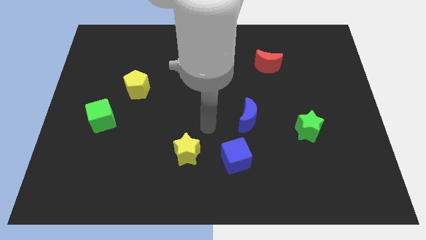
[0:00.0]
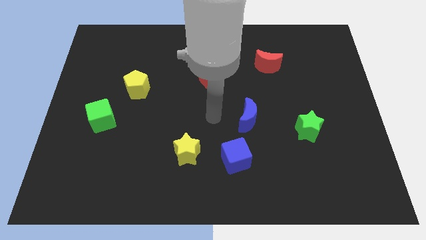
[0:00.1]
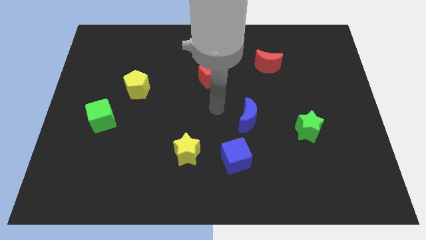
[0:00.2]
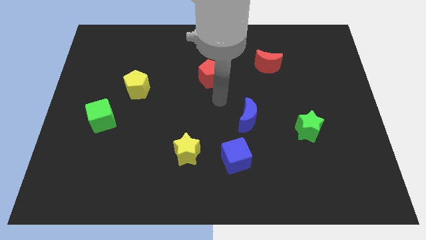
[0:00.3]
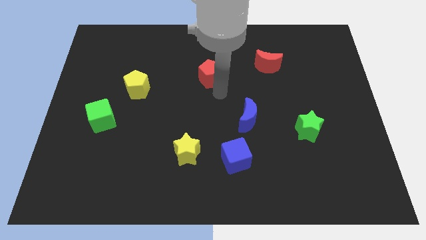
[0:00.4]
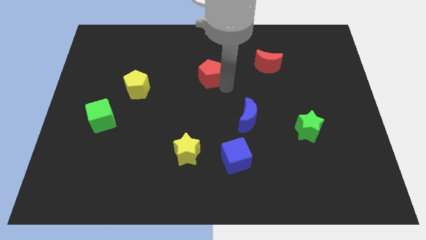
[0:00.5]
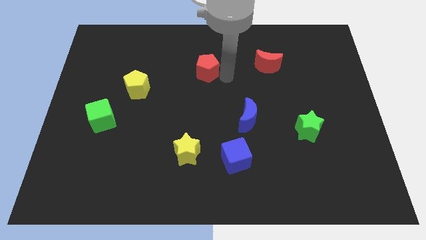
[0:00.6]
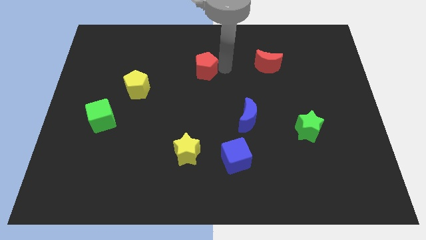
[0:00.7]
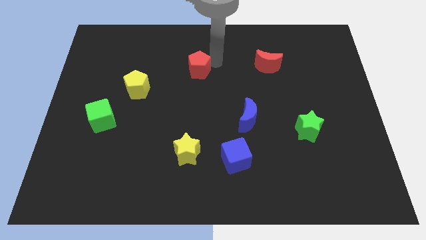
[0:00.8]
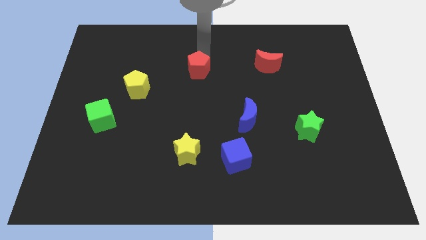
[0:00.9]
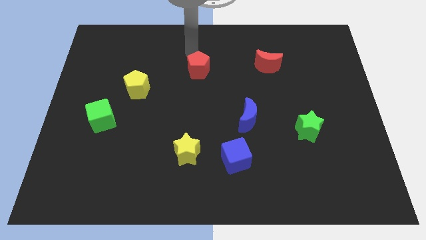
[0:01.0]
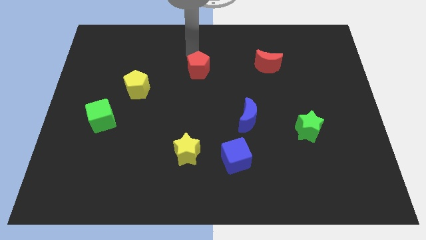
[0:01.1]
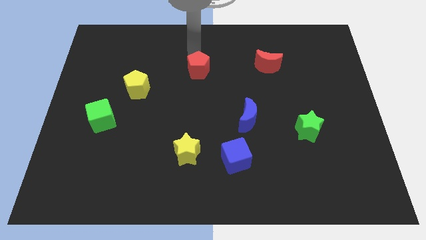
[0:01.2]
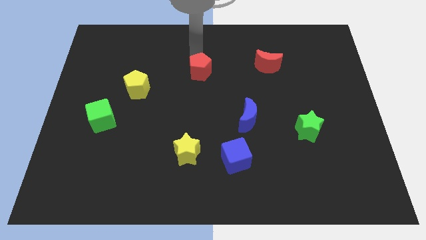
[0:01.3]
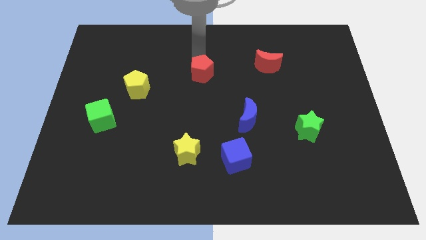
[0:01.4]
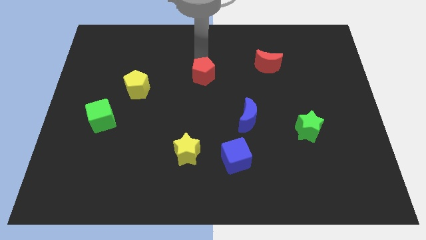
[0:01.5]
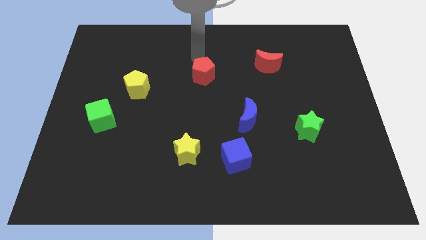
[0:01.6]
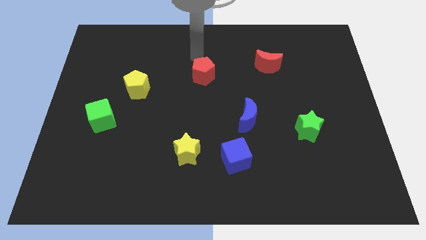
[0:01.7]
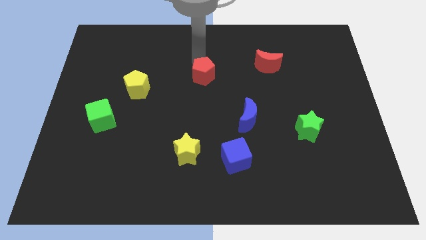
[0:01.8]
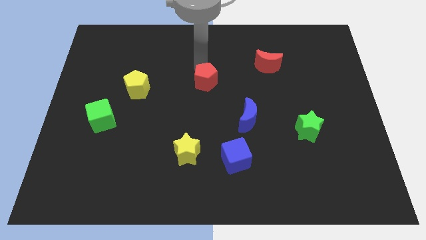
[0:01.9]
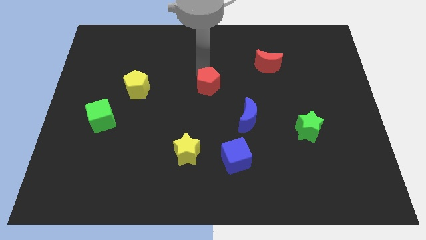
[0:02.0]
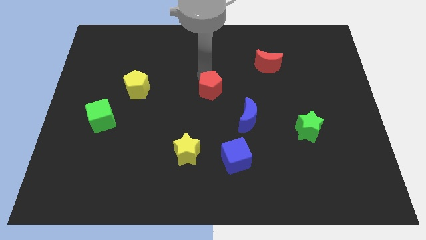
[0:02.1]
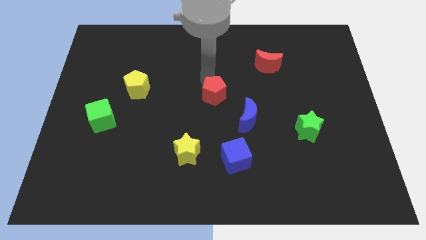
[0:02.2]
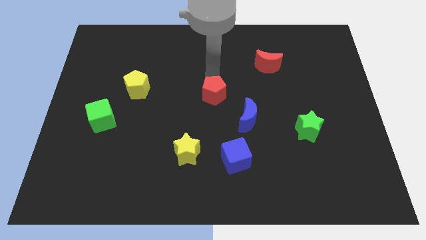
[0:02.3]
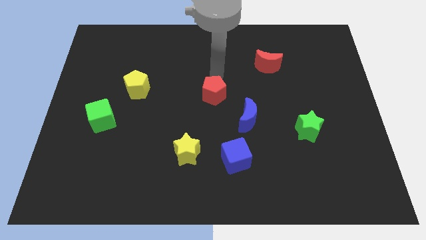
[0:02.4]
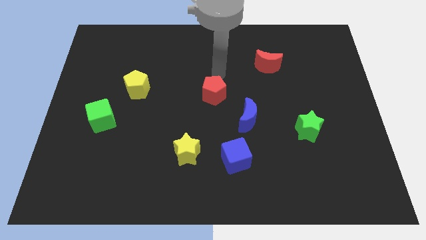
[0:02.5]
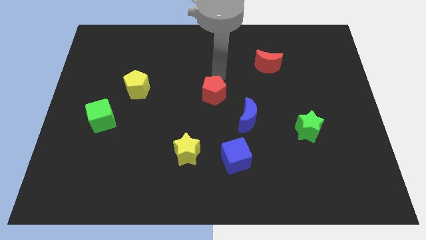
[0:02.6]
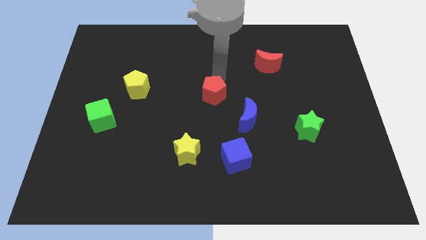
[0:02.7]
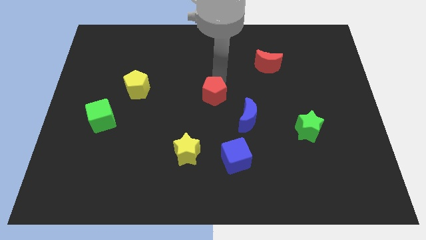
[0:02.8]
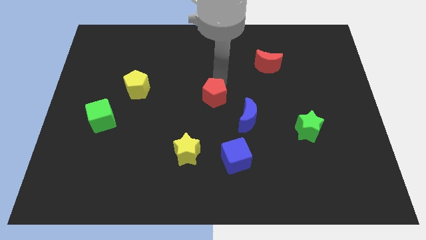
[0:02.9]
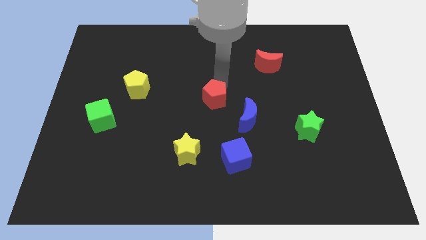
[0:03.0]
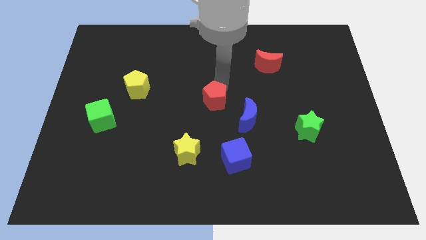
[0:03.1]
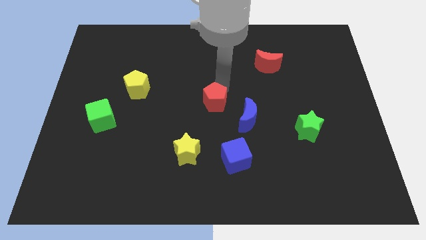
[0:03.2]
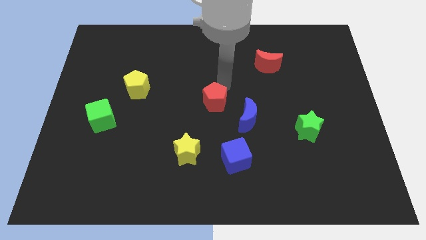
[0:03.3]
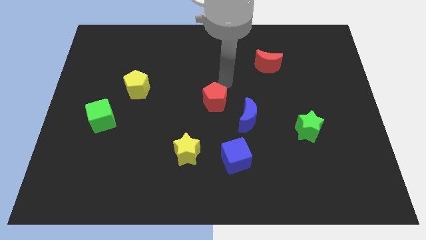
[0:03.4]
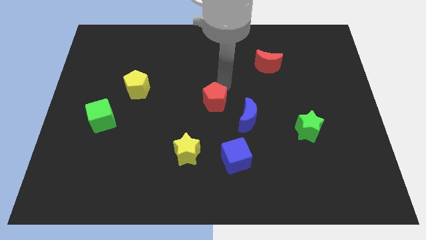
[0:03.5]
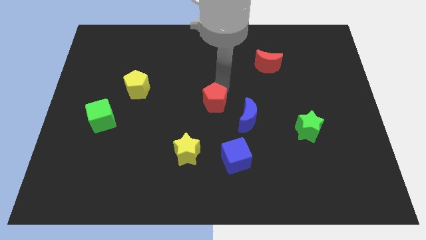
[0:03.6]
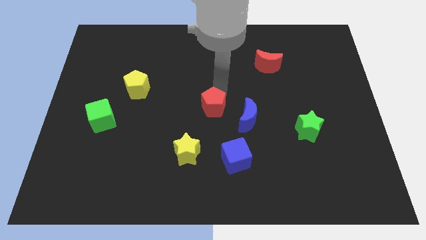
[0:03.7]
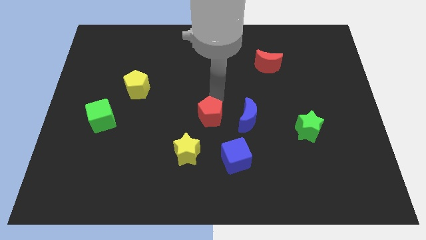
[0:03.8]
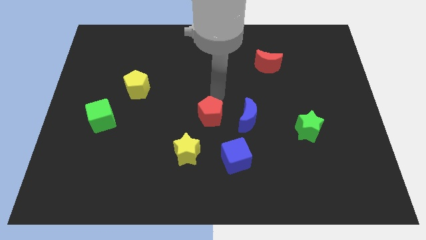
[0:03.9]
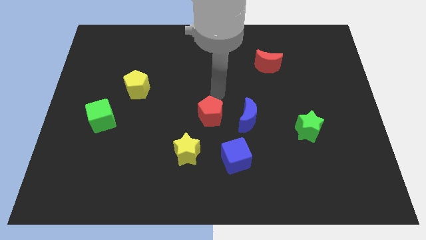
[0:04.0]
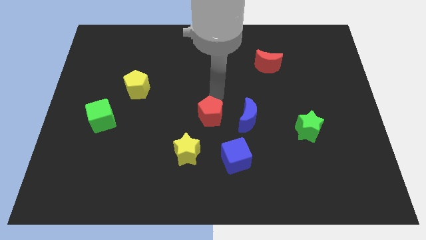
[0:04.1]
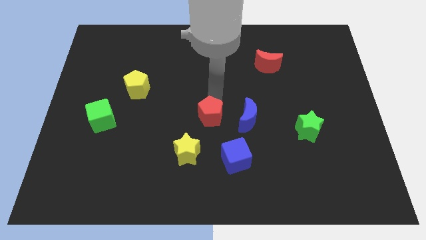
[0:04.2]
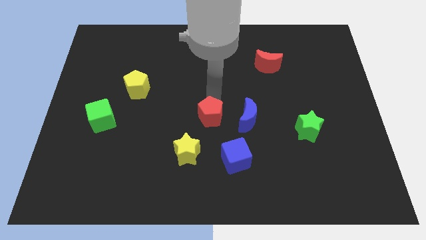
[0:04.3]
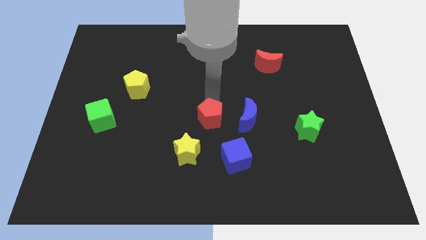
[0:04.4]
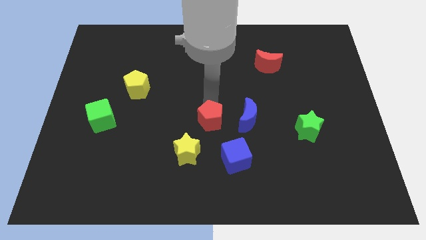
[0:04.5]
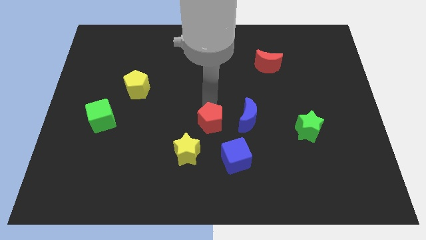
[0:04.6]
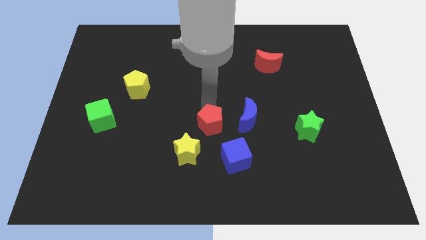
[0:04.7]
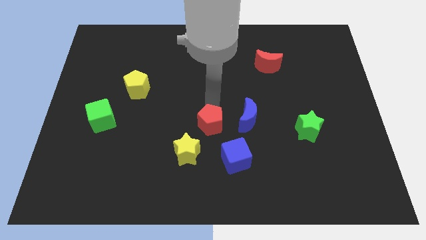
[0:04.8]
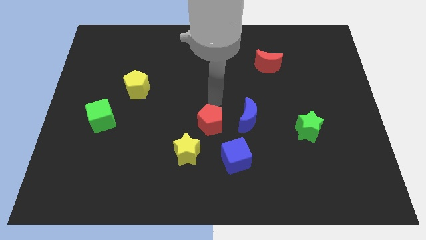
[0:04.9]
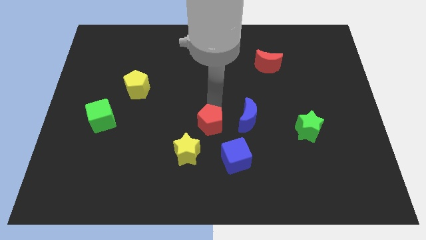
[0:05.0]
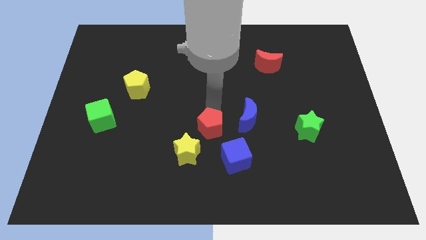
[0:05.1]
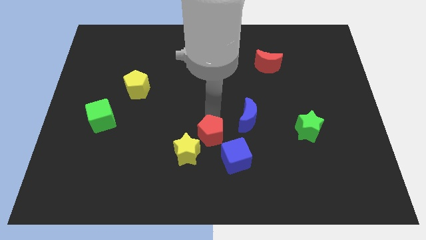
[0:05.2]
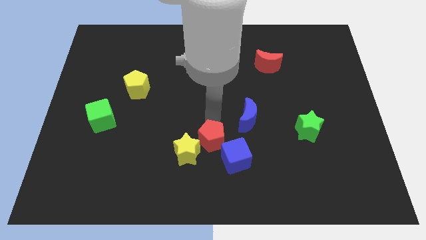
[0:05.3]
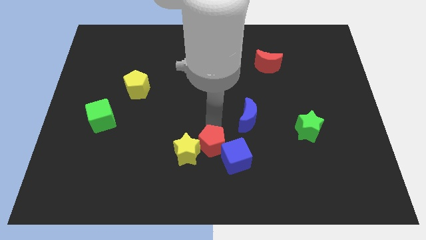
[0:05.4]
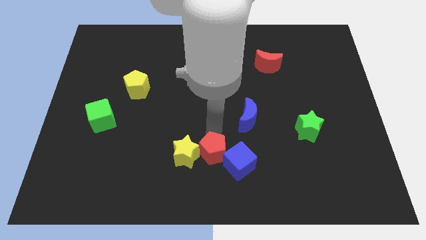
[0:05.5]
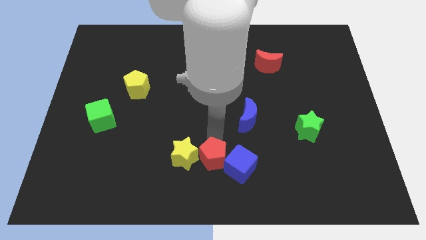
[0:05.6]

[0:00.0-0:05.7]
move the red pentagon to the bottom side

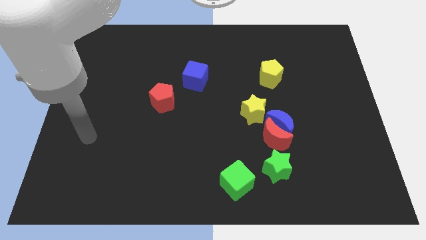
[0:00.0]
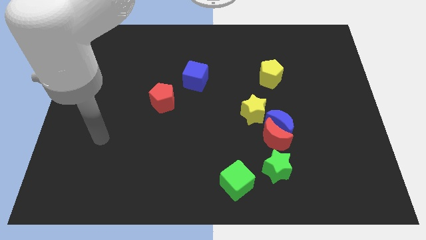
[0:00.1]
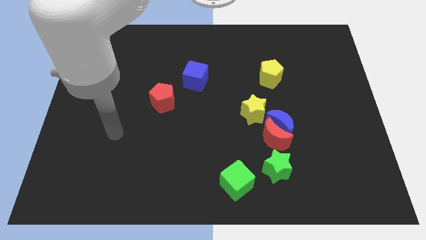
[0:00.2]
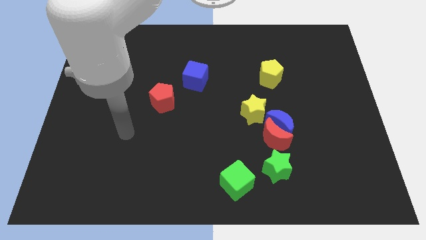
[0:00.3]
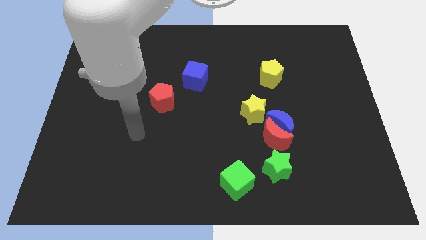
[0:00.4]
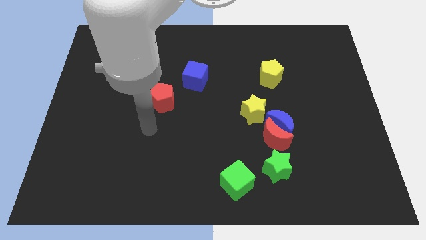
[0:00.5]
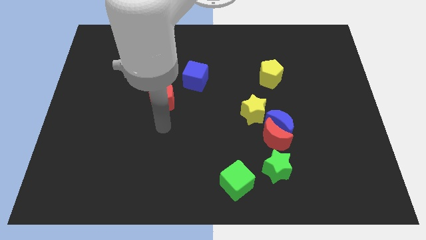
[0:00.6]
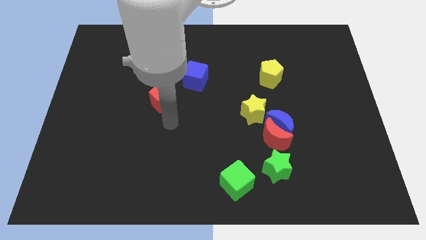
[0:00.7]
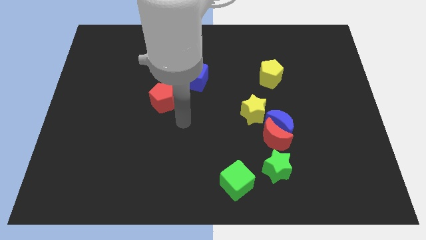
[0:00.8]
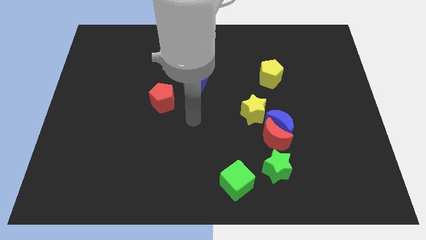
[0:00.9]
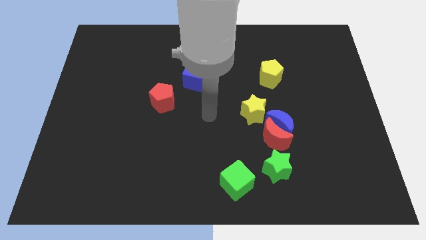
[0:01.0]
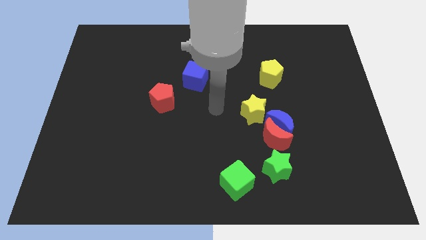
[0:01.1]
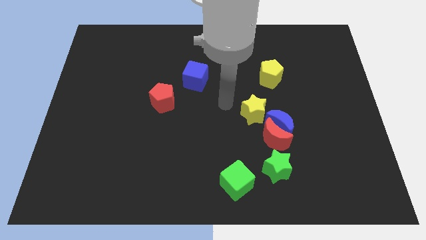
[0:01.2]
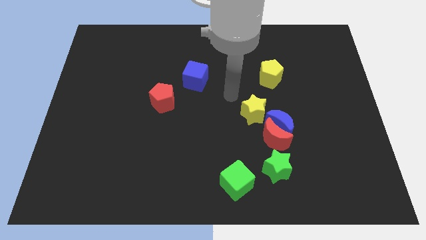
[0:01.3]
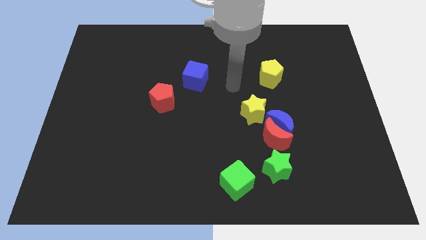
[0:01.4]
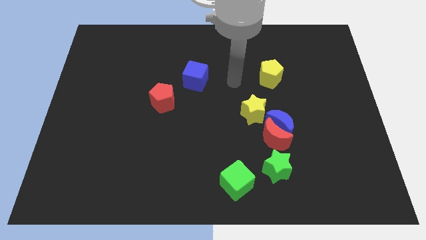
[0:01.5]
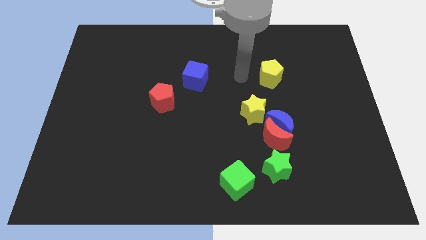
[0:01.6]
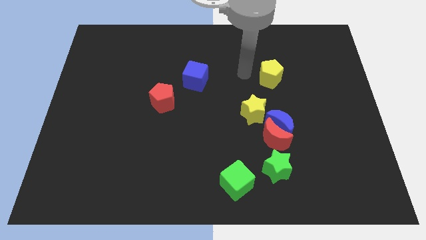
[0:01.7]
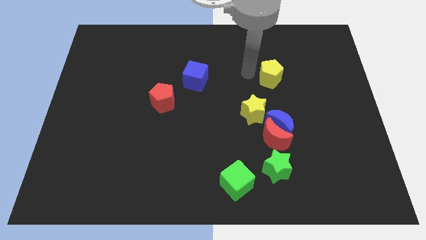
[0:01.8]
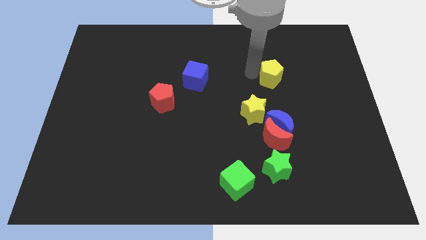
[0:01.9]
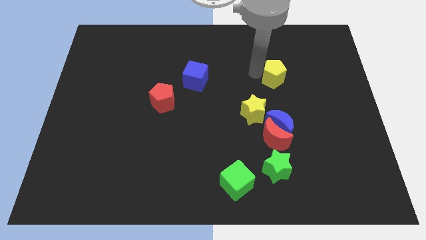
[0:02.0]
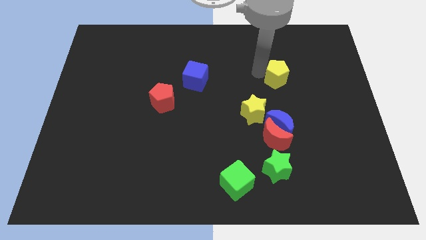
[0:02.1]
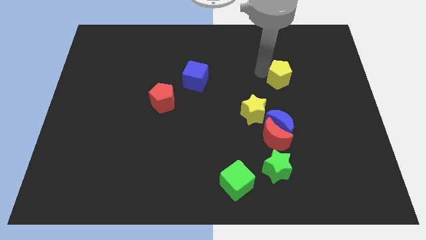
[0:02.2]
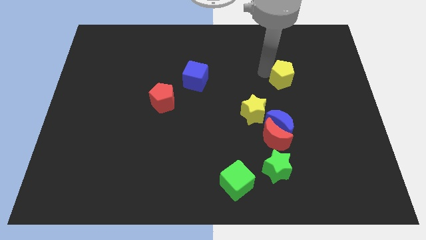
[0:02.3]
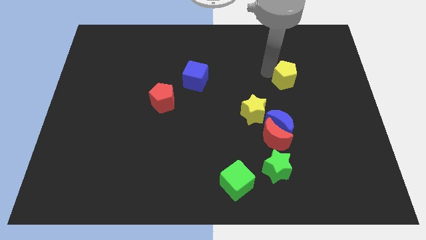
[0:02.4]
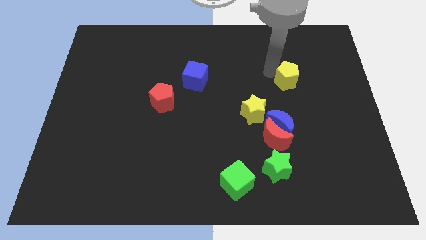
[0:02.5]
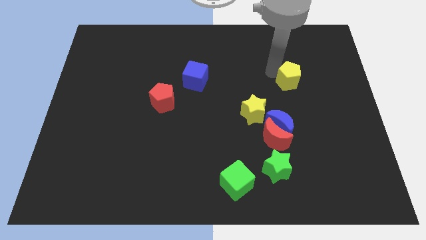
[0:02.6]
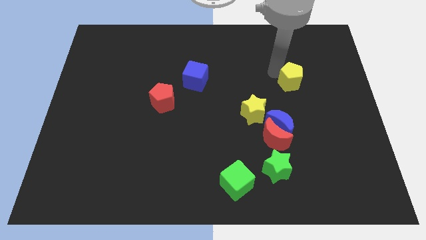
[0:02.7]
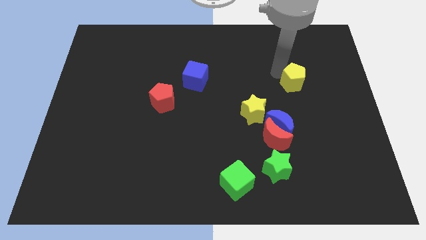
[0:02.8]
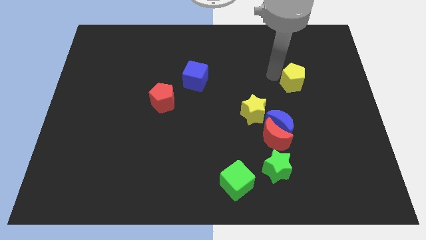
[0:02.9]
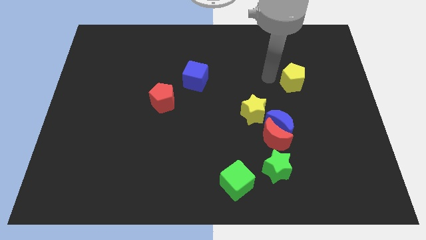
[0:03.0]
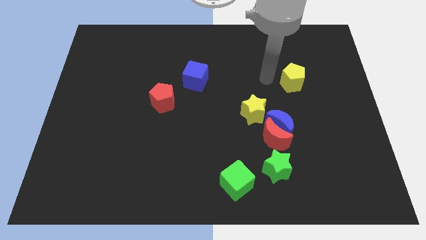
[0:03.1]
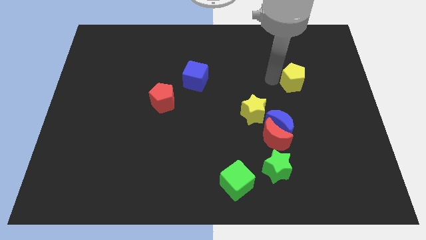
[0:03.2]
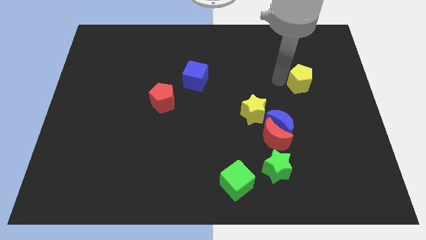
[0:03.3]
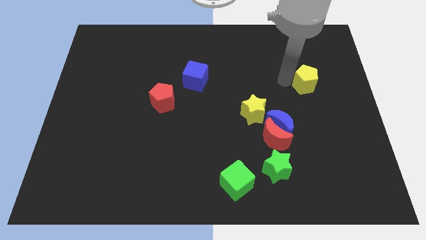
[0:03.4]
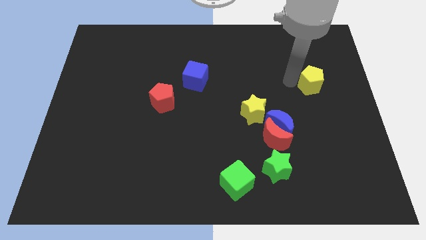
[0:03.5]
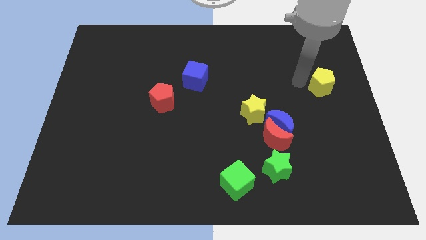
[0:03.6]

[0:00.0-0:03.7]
move the yellow pentagon to the center right
